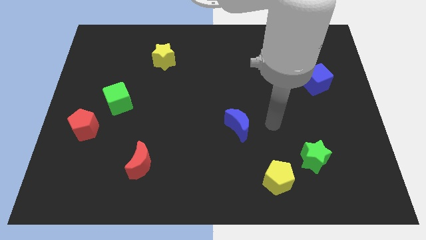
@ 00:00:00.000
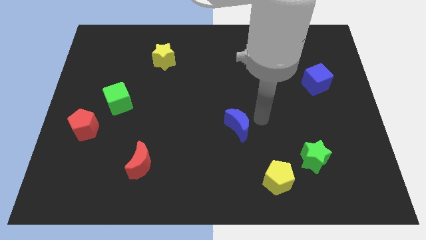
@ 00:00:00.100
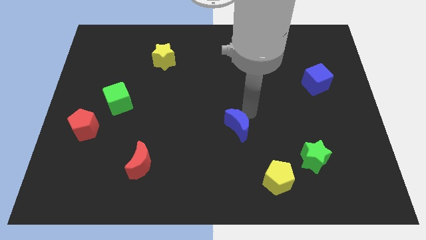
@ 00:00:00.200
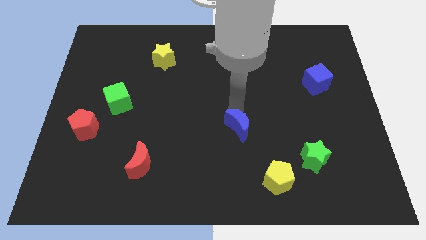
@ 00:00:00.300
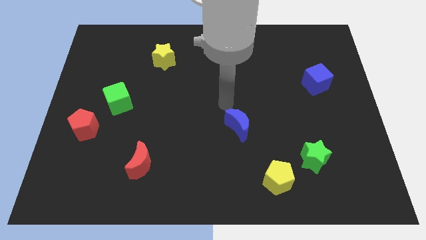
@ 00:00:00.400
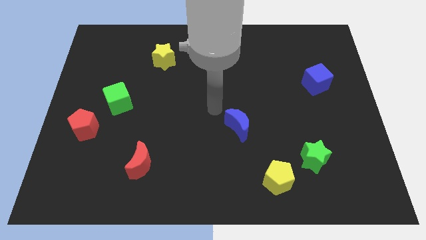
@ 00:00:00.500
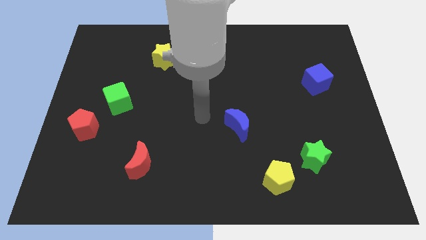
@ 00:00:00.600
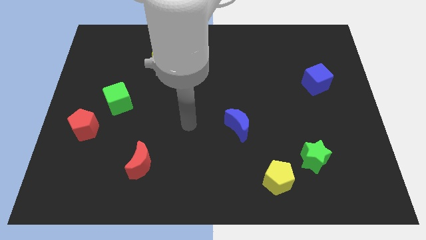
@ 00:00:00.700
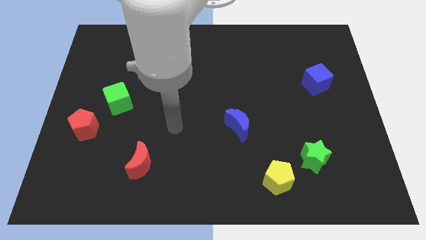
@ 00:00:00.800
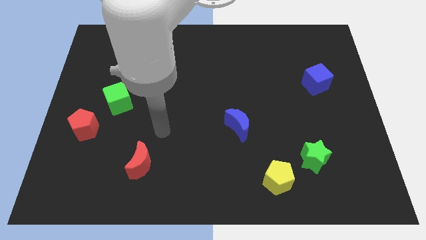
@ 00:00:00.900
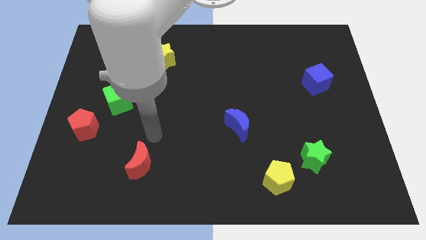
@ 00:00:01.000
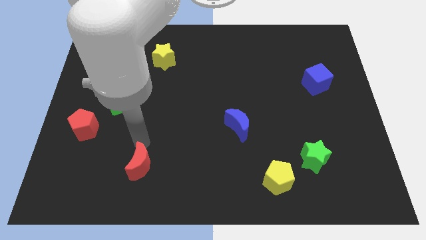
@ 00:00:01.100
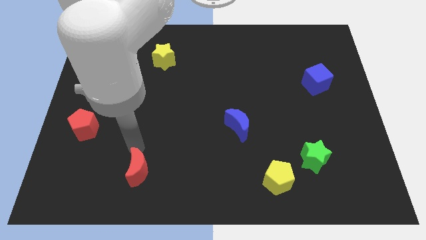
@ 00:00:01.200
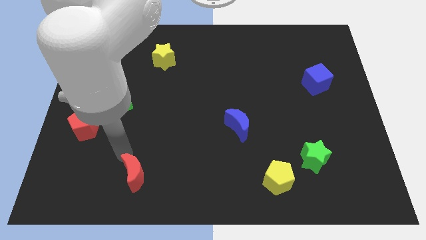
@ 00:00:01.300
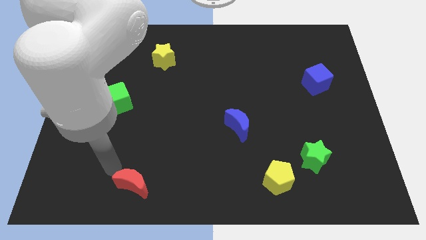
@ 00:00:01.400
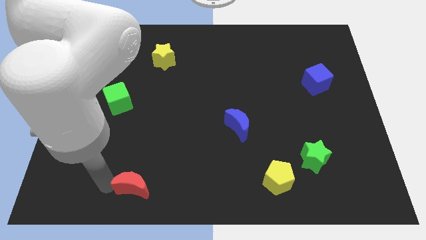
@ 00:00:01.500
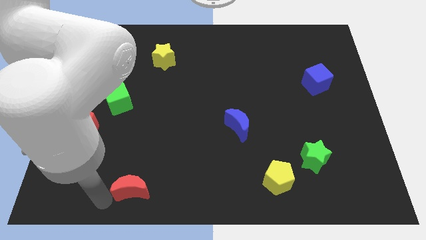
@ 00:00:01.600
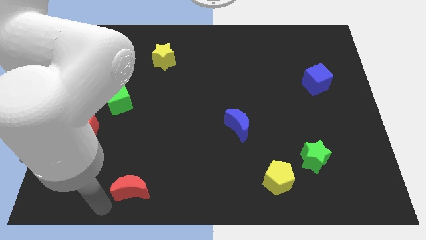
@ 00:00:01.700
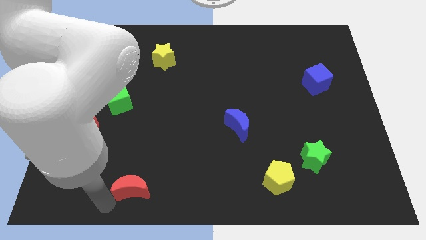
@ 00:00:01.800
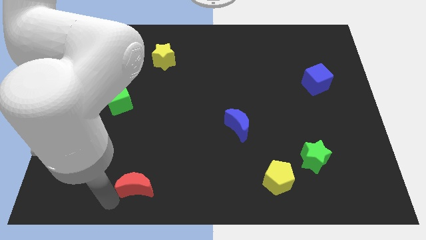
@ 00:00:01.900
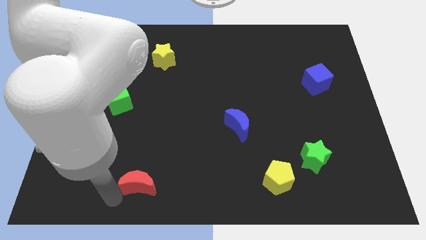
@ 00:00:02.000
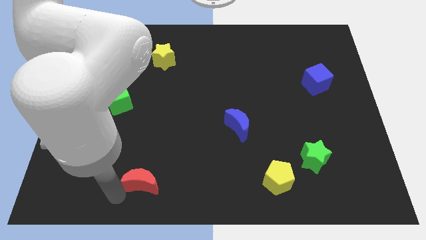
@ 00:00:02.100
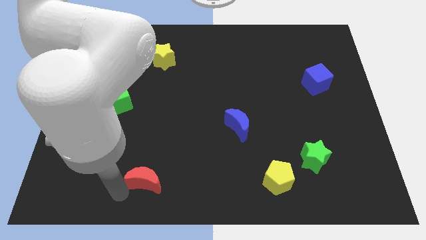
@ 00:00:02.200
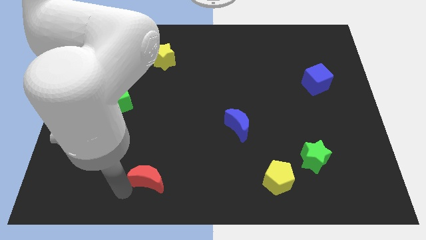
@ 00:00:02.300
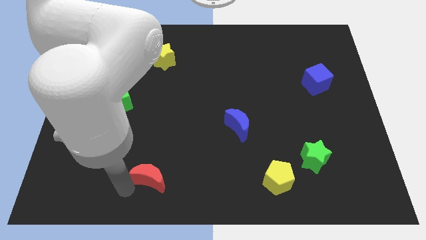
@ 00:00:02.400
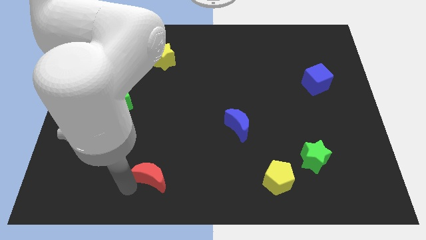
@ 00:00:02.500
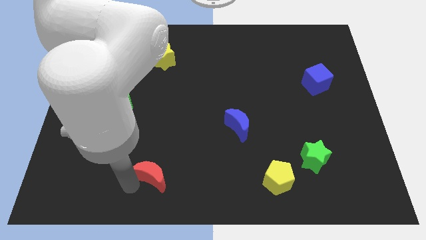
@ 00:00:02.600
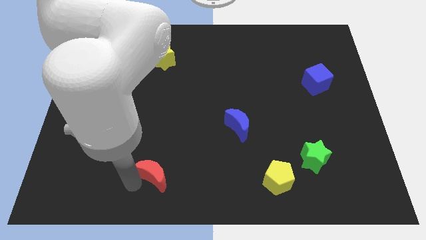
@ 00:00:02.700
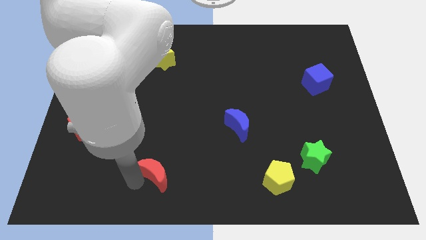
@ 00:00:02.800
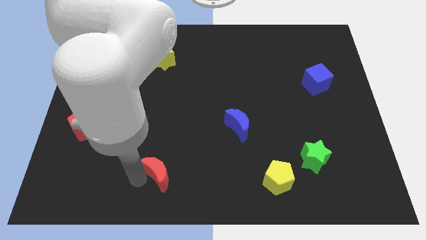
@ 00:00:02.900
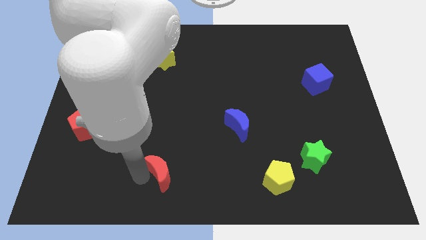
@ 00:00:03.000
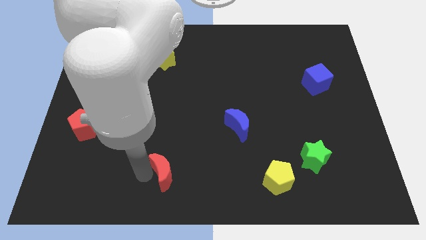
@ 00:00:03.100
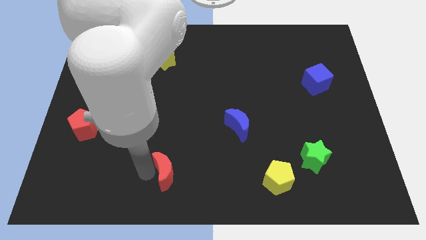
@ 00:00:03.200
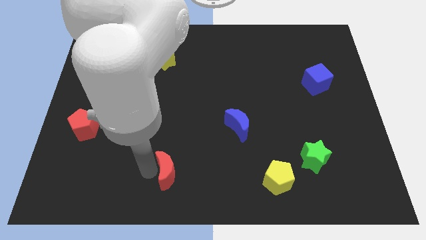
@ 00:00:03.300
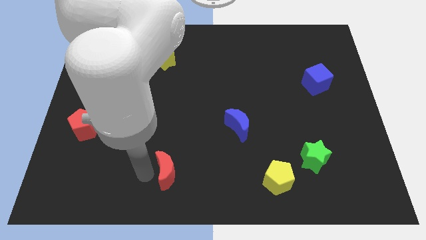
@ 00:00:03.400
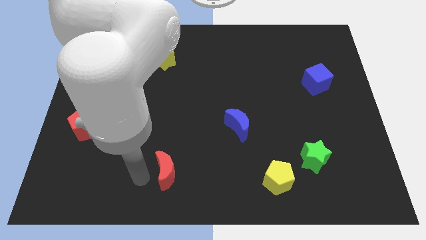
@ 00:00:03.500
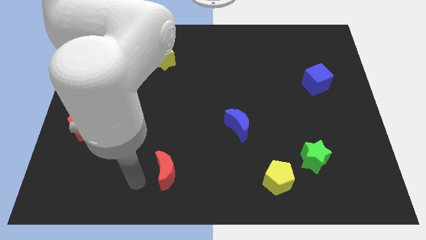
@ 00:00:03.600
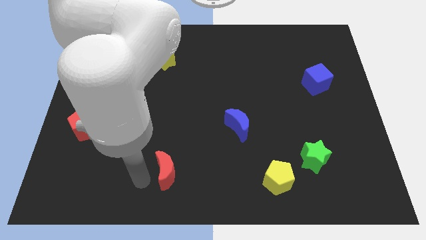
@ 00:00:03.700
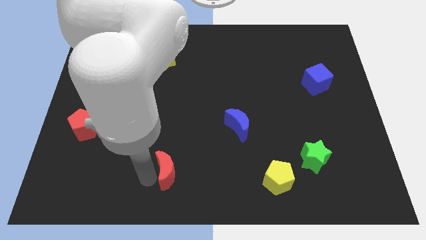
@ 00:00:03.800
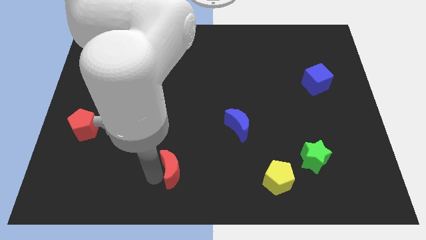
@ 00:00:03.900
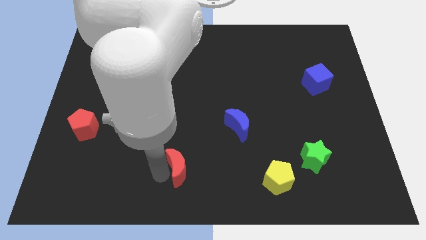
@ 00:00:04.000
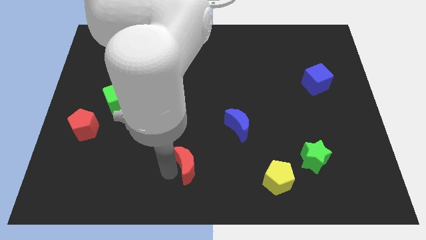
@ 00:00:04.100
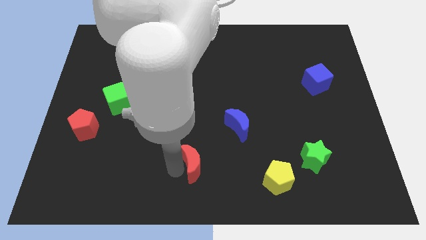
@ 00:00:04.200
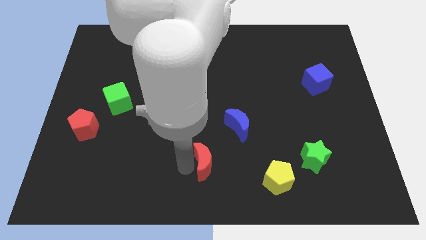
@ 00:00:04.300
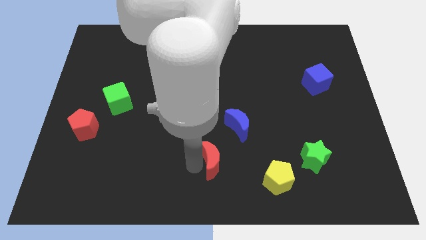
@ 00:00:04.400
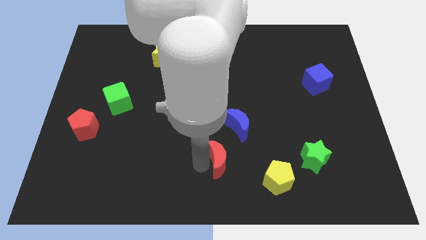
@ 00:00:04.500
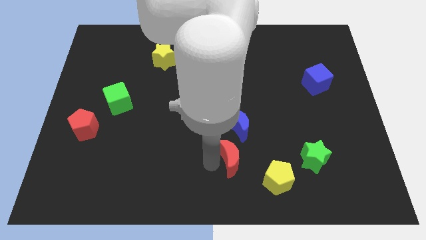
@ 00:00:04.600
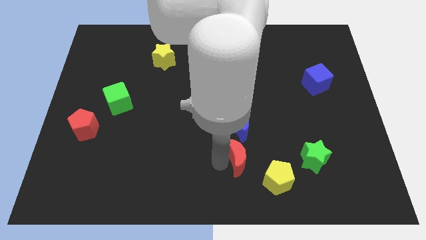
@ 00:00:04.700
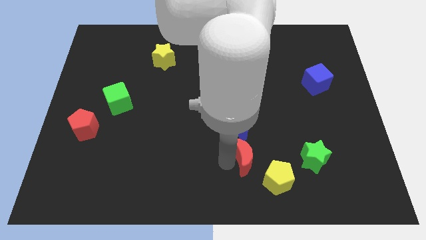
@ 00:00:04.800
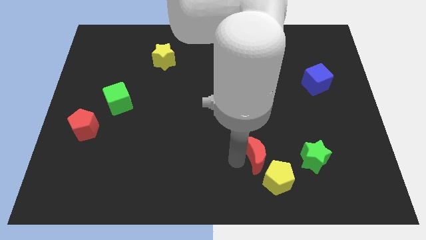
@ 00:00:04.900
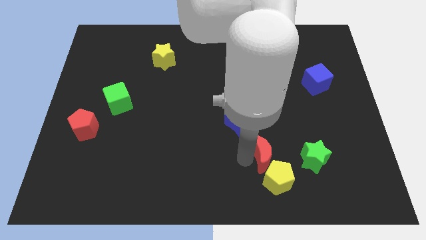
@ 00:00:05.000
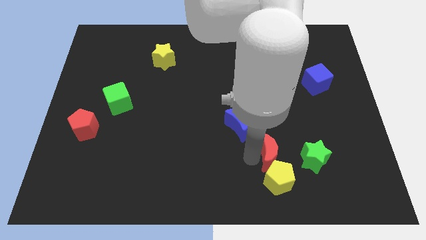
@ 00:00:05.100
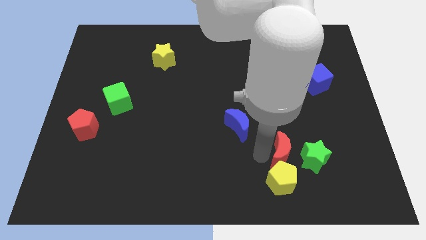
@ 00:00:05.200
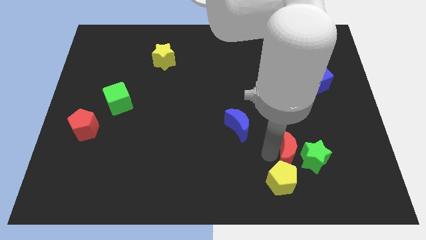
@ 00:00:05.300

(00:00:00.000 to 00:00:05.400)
push the red moon to the green star

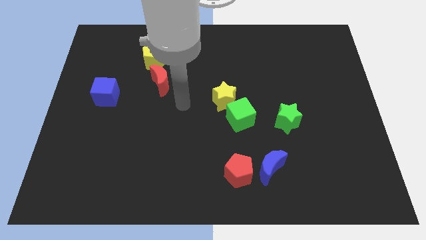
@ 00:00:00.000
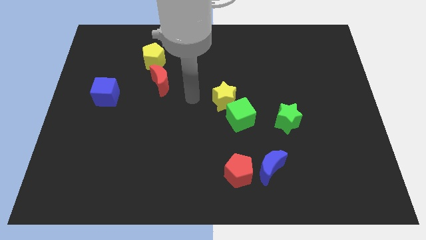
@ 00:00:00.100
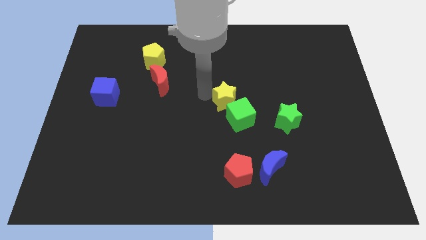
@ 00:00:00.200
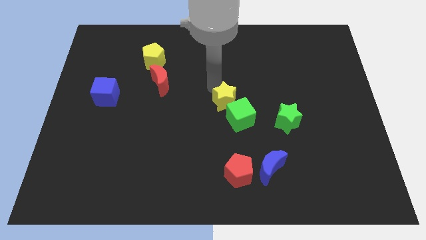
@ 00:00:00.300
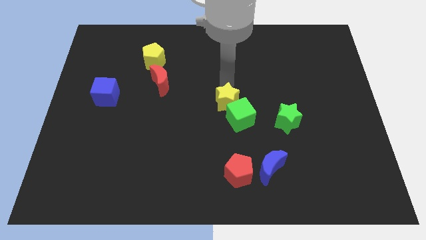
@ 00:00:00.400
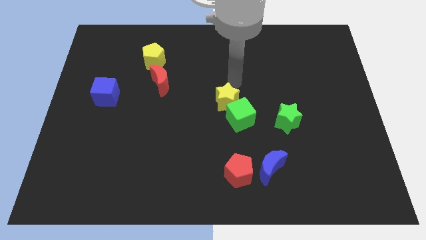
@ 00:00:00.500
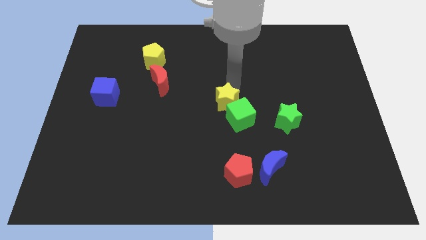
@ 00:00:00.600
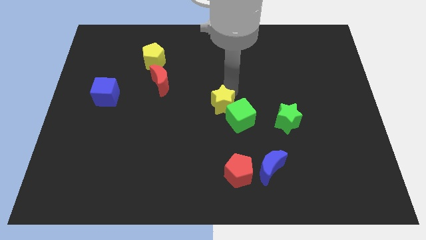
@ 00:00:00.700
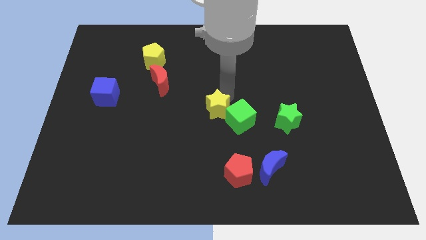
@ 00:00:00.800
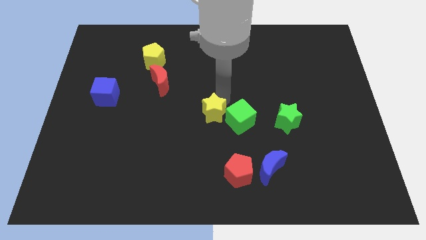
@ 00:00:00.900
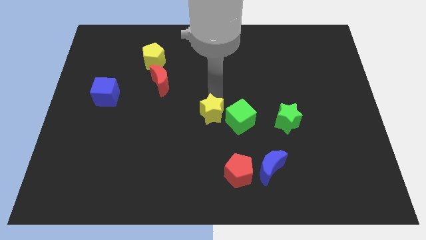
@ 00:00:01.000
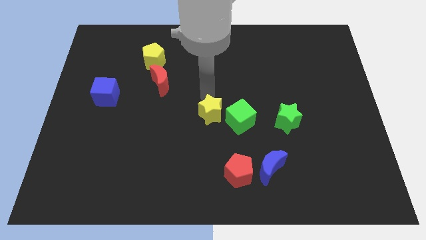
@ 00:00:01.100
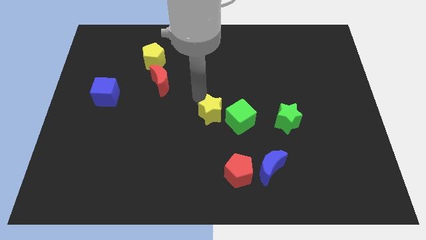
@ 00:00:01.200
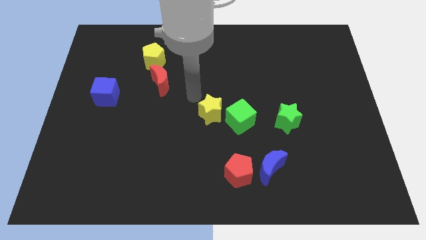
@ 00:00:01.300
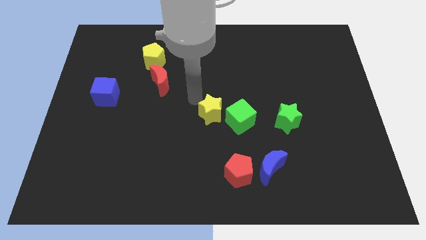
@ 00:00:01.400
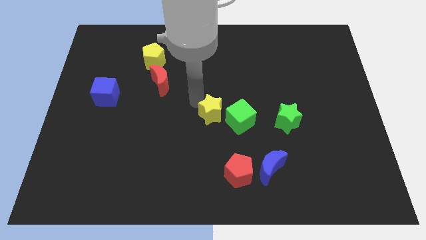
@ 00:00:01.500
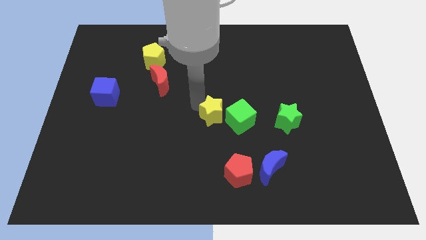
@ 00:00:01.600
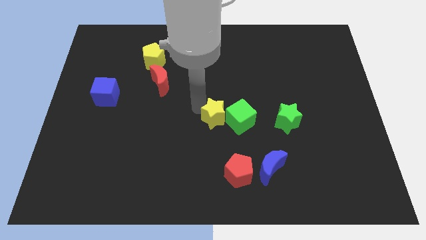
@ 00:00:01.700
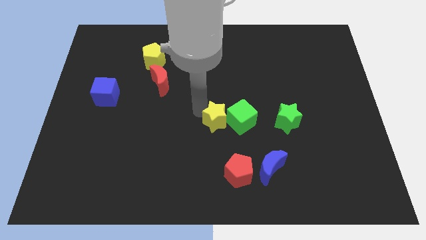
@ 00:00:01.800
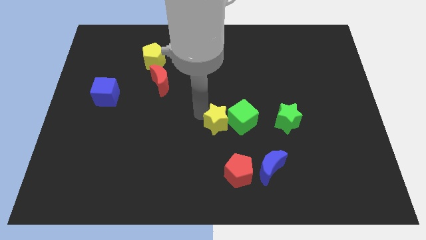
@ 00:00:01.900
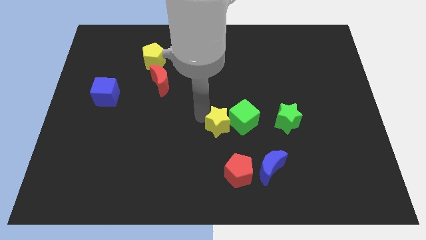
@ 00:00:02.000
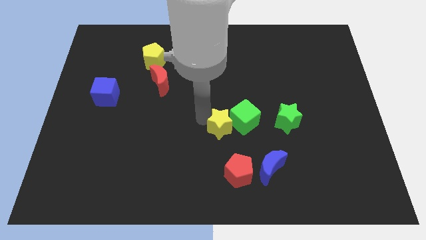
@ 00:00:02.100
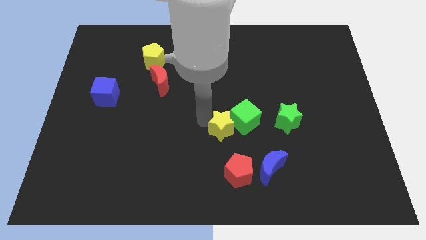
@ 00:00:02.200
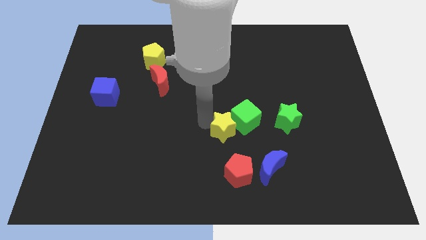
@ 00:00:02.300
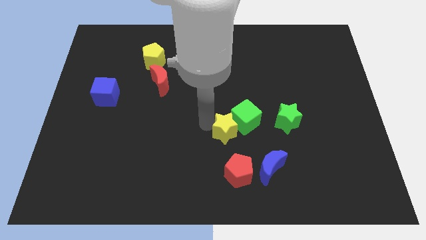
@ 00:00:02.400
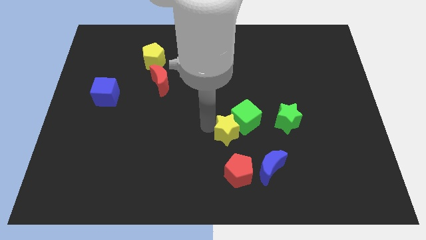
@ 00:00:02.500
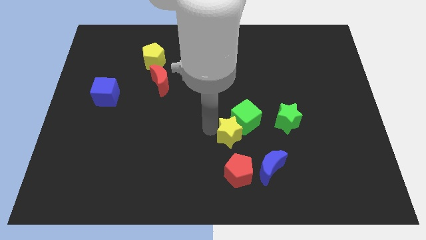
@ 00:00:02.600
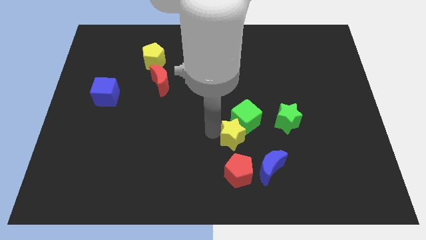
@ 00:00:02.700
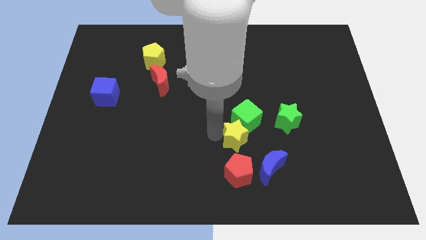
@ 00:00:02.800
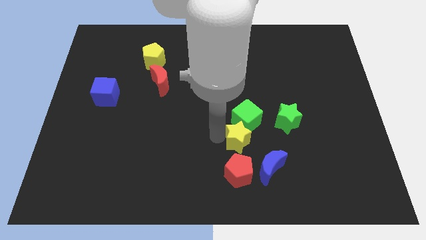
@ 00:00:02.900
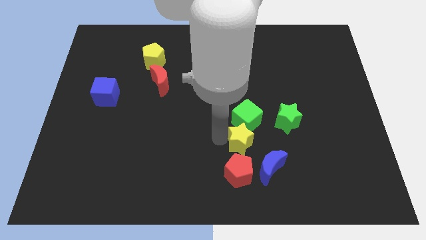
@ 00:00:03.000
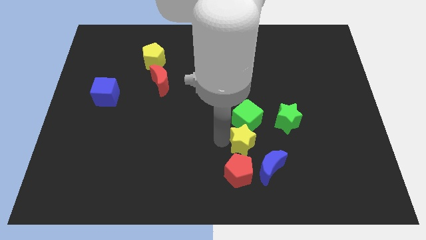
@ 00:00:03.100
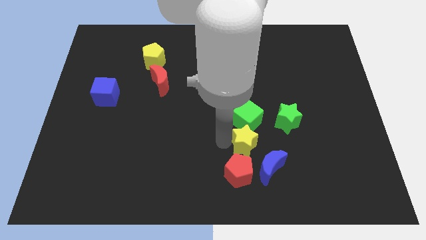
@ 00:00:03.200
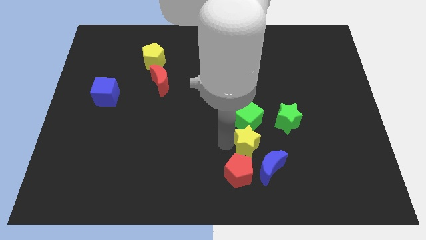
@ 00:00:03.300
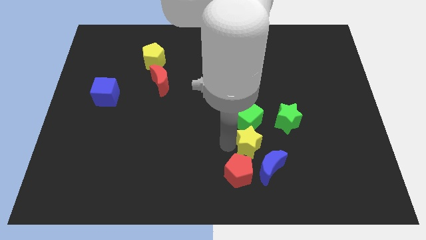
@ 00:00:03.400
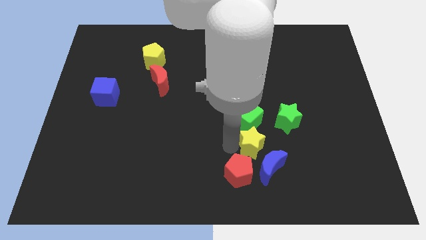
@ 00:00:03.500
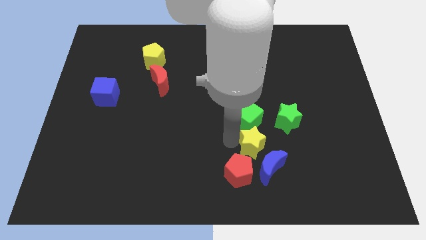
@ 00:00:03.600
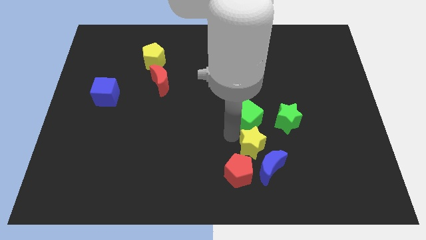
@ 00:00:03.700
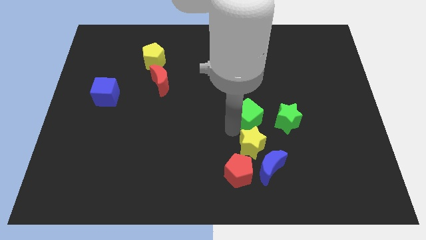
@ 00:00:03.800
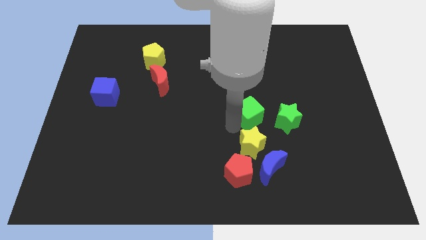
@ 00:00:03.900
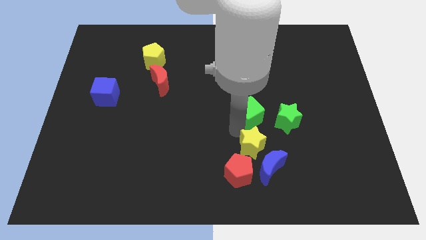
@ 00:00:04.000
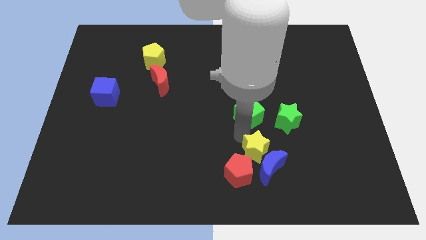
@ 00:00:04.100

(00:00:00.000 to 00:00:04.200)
push the yellow star towards the blue moon
